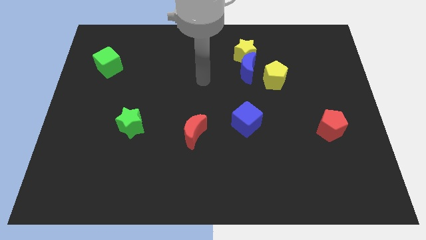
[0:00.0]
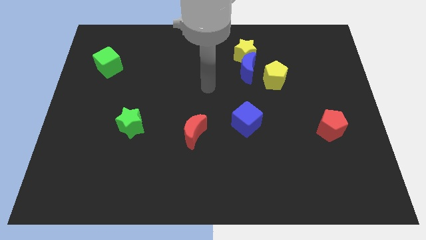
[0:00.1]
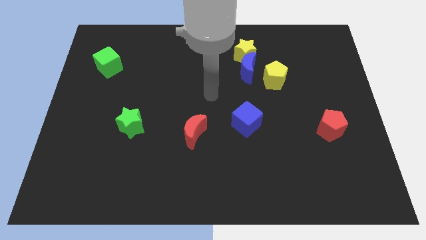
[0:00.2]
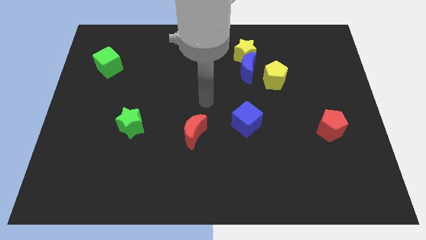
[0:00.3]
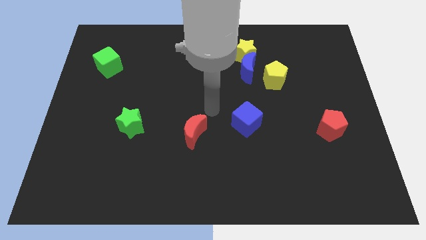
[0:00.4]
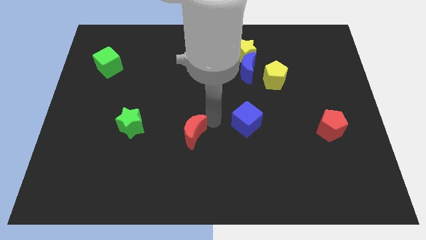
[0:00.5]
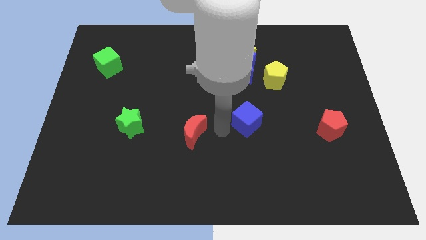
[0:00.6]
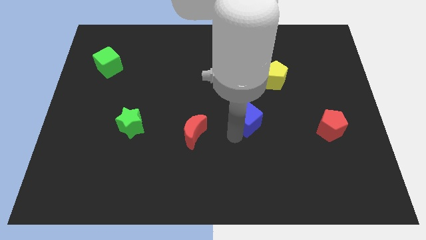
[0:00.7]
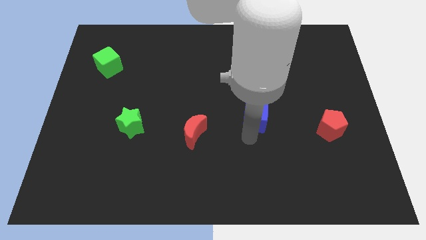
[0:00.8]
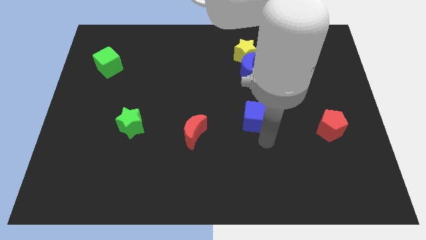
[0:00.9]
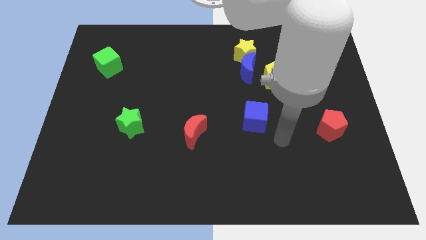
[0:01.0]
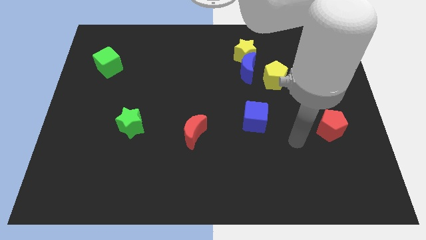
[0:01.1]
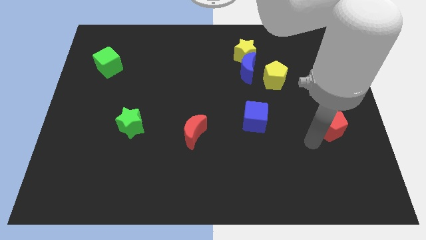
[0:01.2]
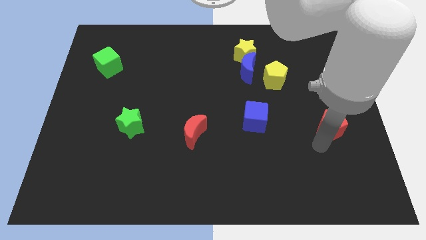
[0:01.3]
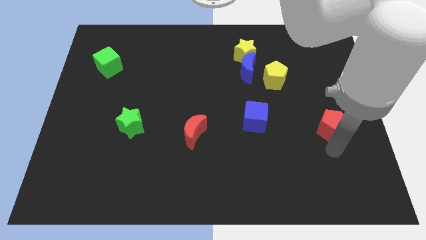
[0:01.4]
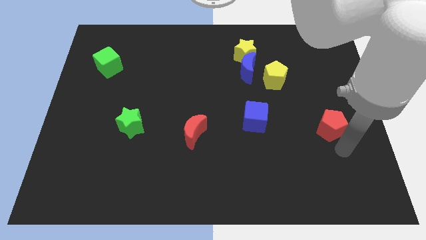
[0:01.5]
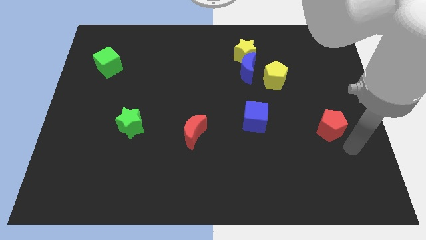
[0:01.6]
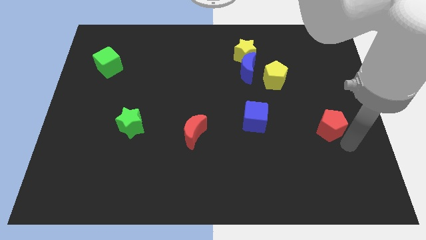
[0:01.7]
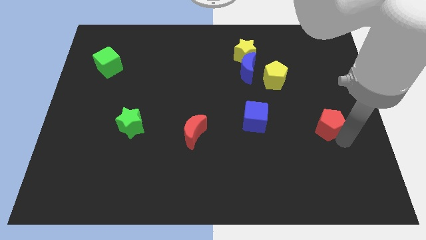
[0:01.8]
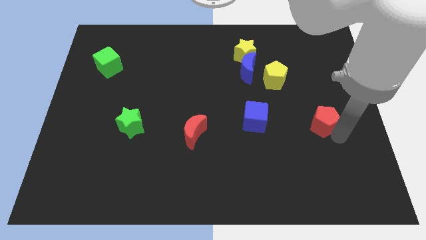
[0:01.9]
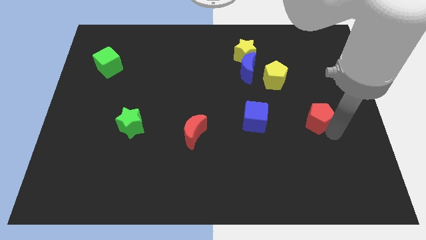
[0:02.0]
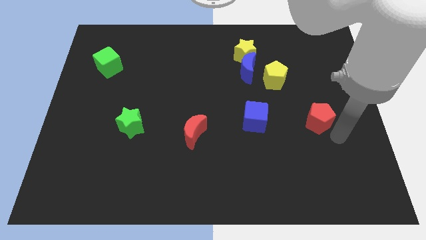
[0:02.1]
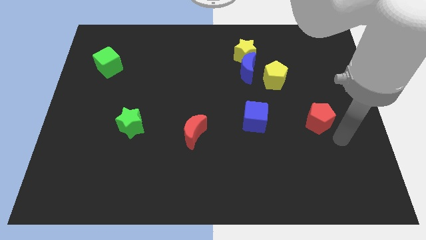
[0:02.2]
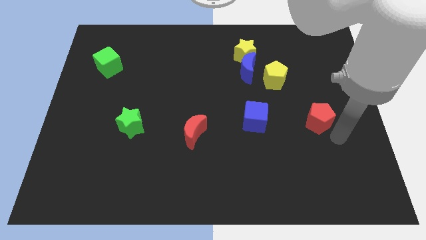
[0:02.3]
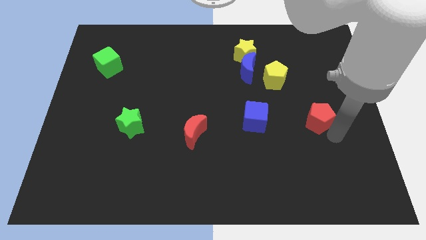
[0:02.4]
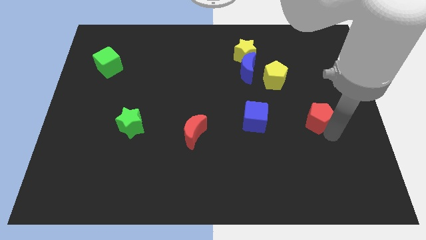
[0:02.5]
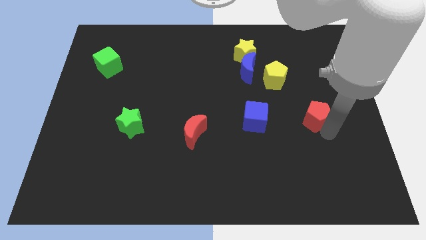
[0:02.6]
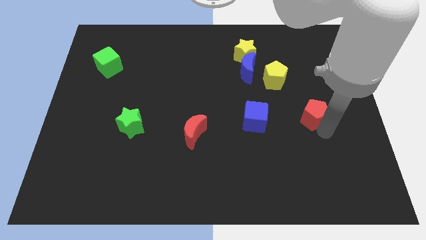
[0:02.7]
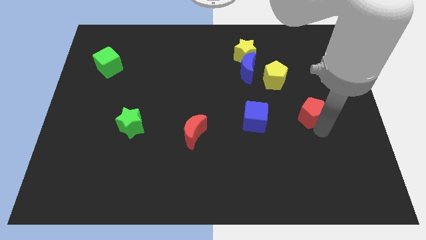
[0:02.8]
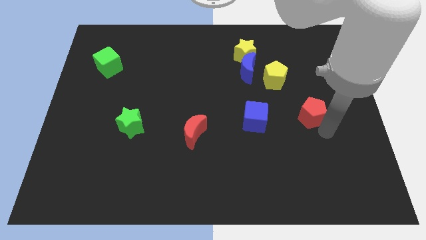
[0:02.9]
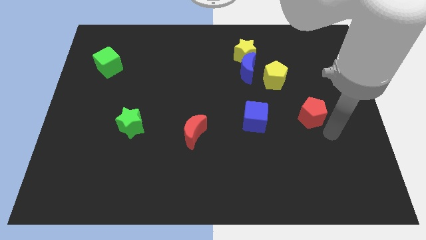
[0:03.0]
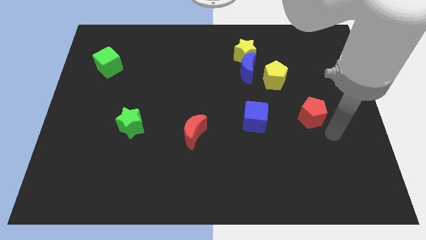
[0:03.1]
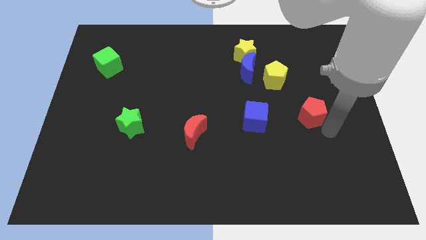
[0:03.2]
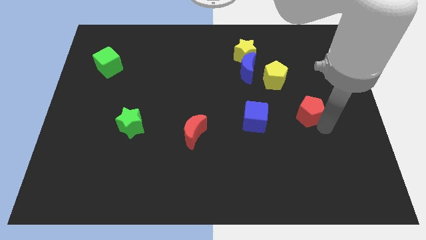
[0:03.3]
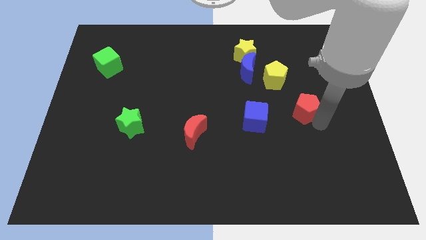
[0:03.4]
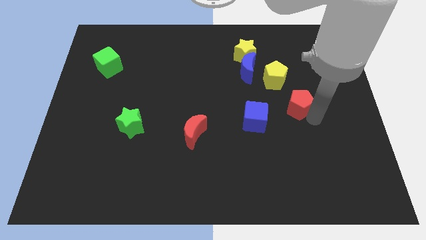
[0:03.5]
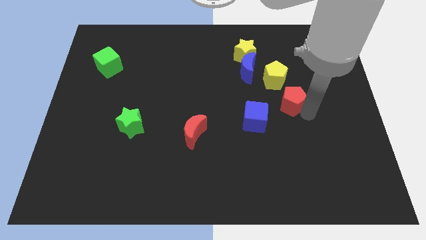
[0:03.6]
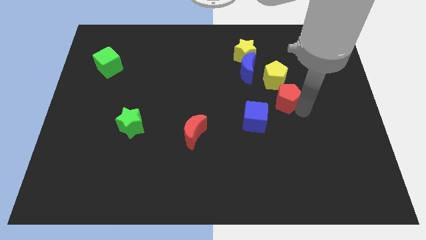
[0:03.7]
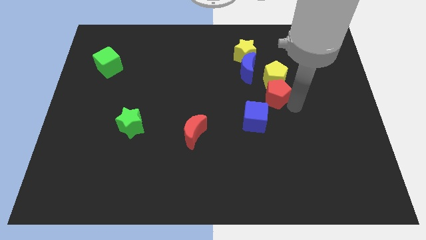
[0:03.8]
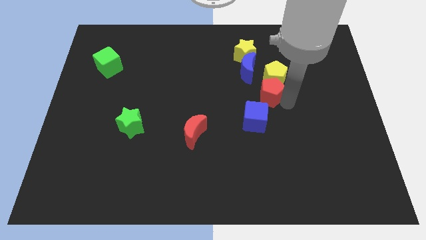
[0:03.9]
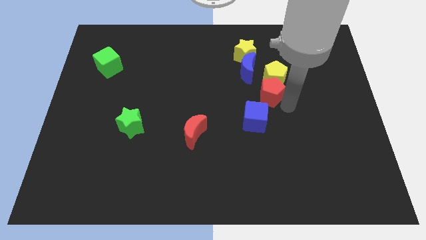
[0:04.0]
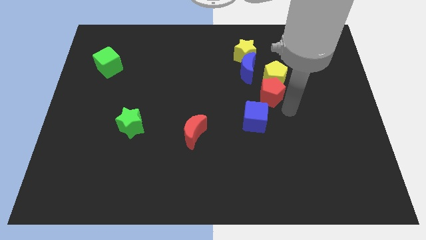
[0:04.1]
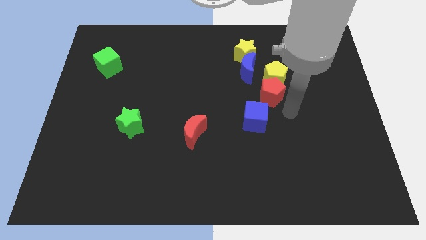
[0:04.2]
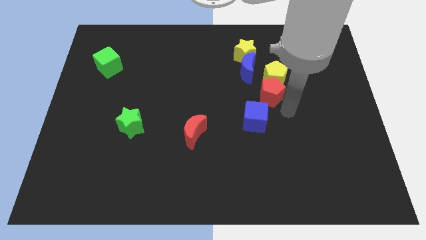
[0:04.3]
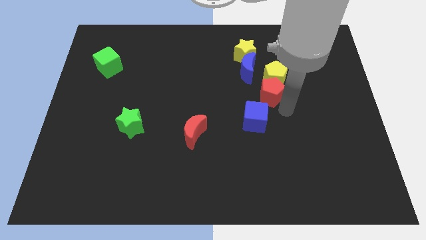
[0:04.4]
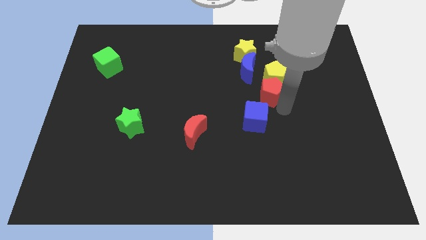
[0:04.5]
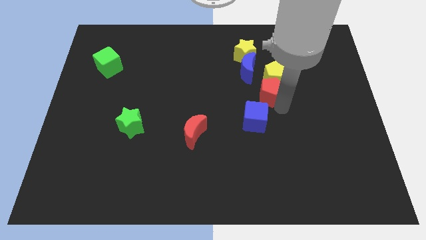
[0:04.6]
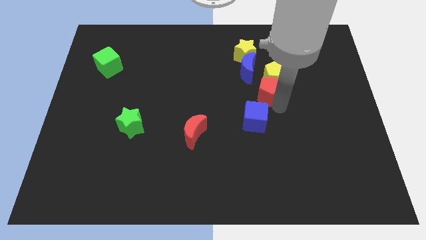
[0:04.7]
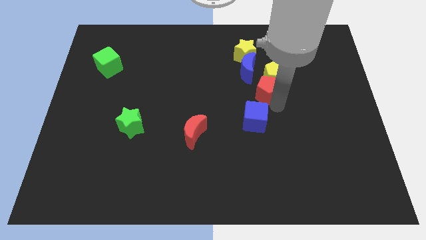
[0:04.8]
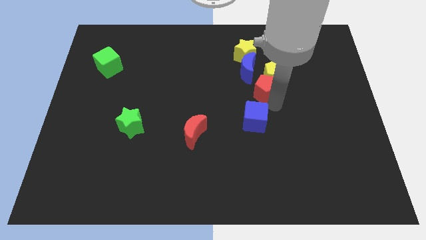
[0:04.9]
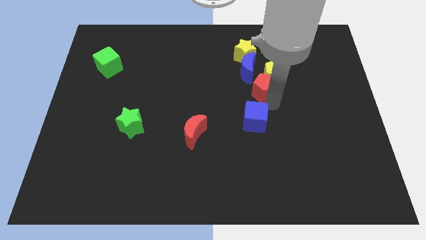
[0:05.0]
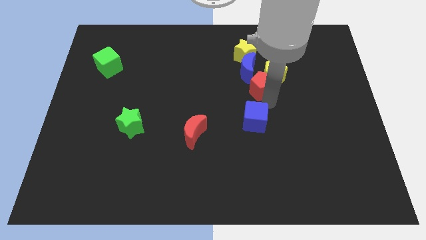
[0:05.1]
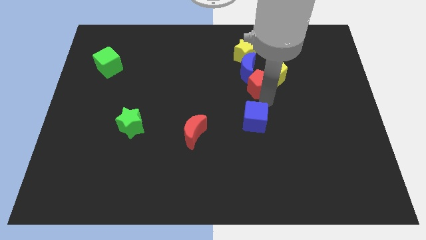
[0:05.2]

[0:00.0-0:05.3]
put the red pentagon next to the blue moon

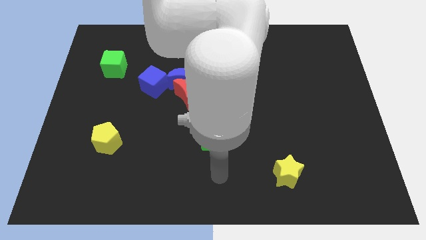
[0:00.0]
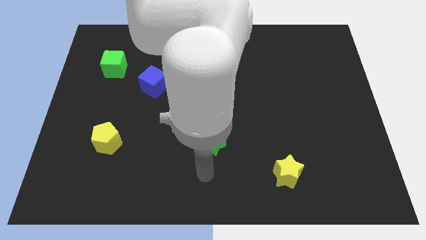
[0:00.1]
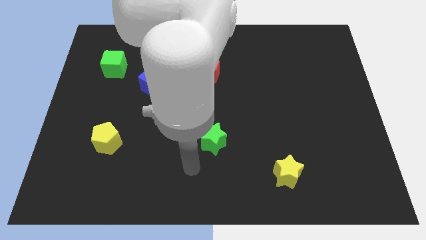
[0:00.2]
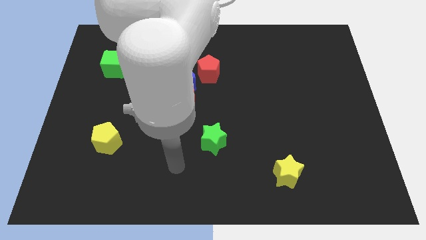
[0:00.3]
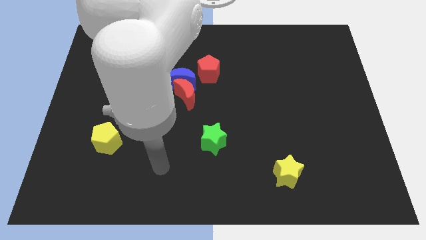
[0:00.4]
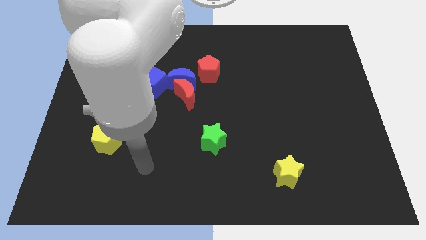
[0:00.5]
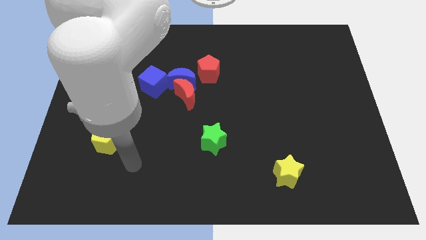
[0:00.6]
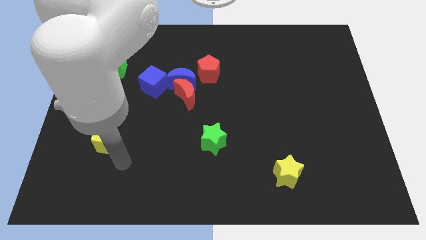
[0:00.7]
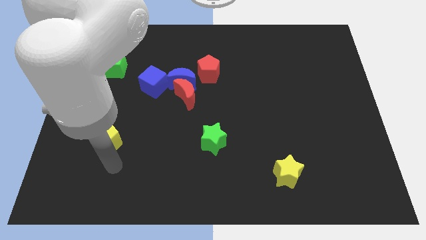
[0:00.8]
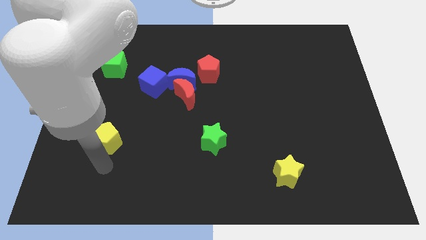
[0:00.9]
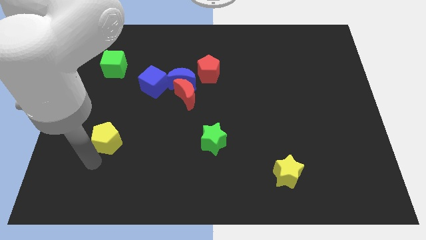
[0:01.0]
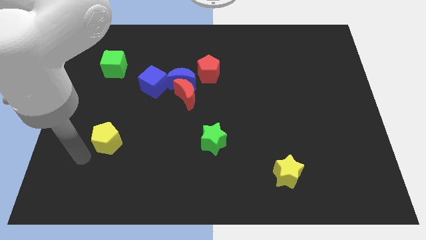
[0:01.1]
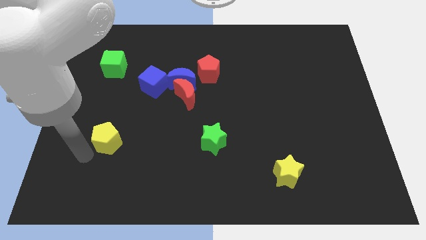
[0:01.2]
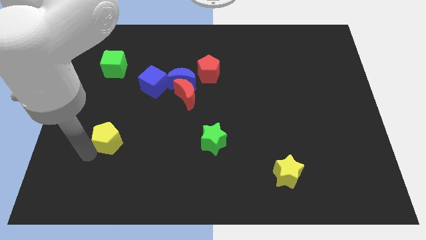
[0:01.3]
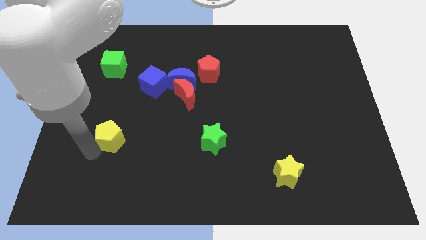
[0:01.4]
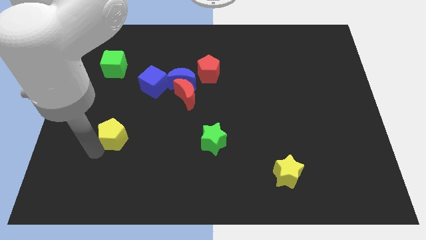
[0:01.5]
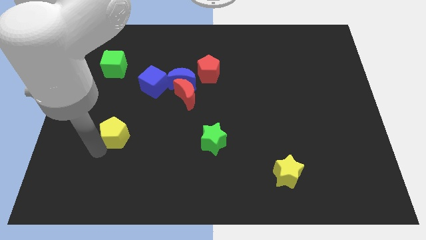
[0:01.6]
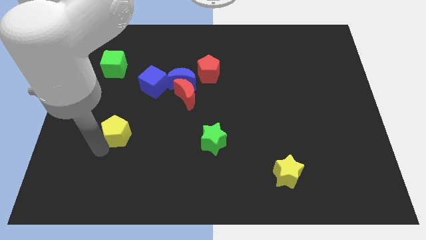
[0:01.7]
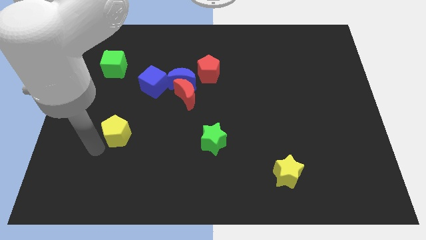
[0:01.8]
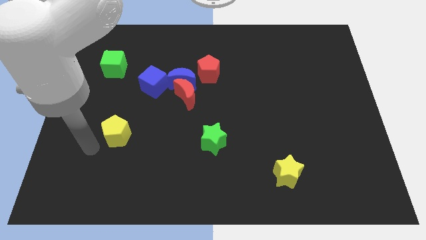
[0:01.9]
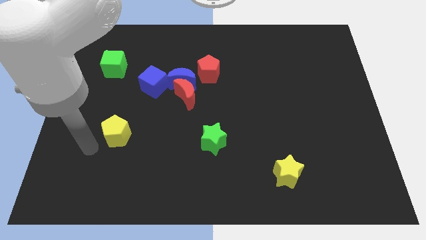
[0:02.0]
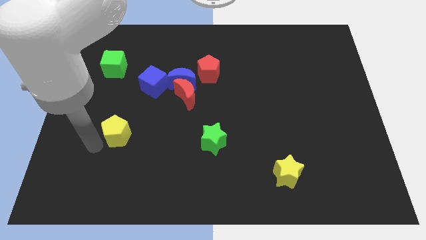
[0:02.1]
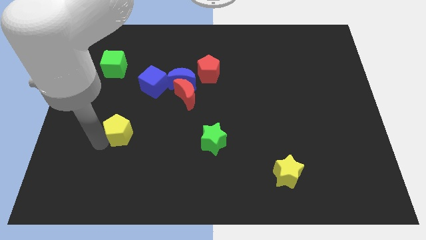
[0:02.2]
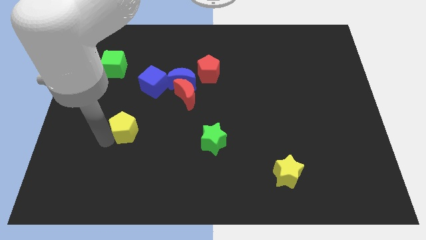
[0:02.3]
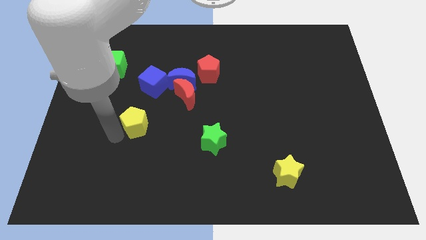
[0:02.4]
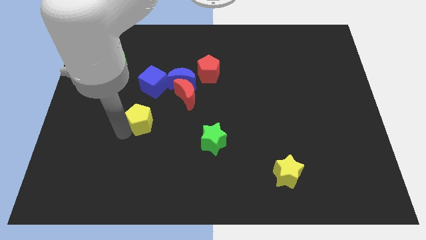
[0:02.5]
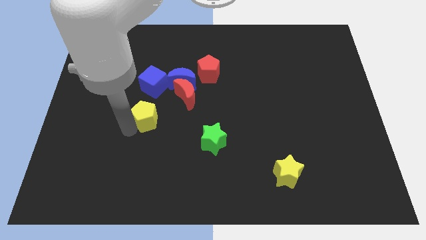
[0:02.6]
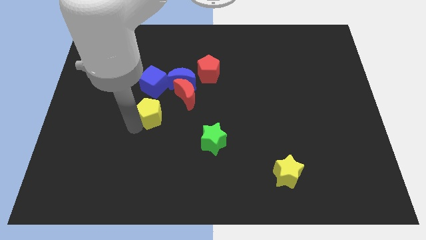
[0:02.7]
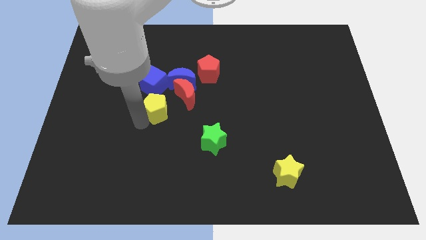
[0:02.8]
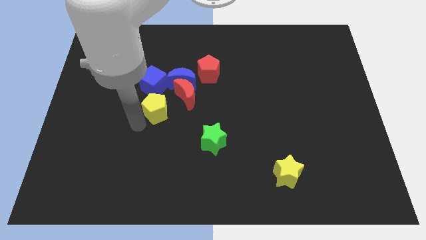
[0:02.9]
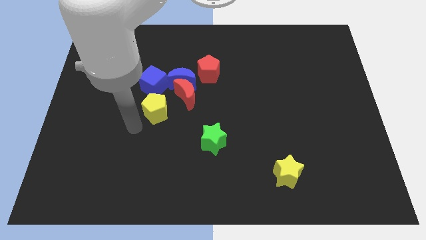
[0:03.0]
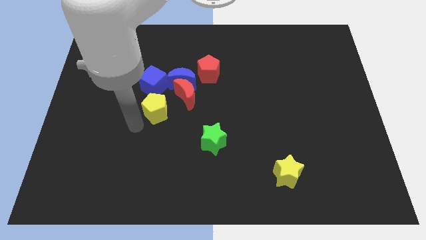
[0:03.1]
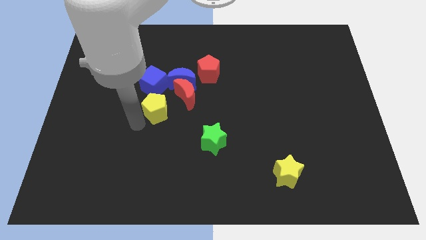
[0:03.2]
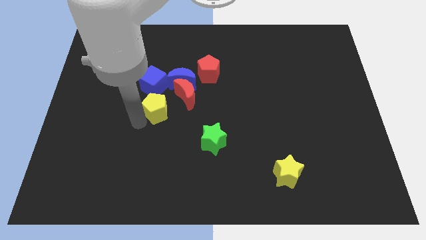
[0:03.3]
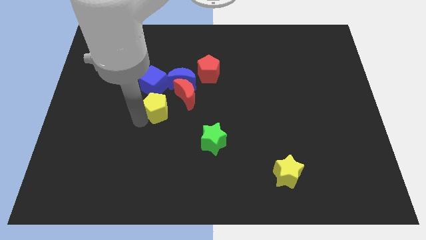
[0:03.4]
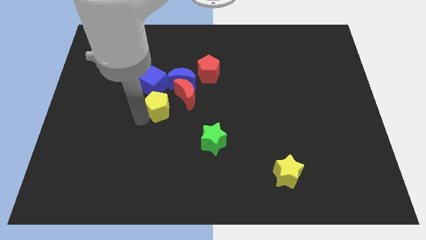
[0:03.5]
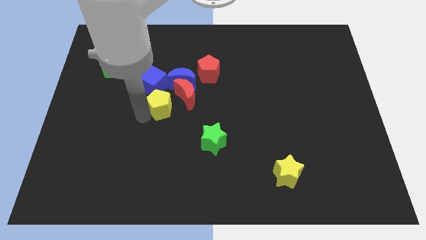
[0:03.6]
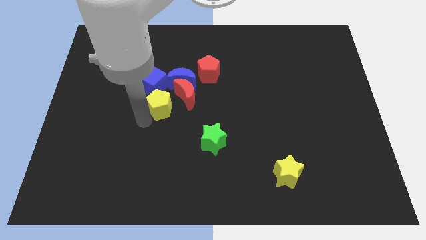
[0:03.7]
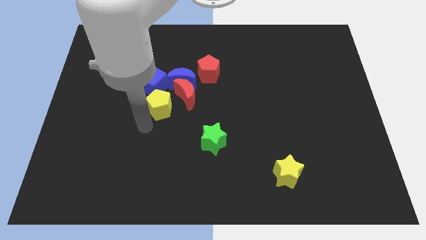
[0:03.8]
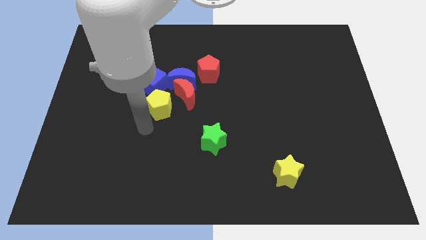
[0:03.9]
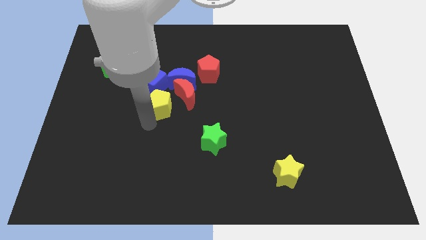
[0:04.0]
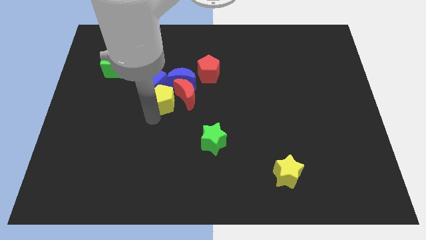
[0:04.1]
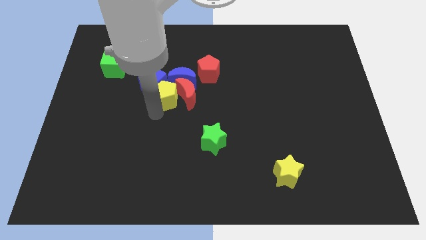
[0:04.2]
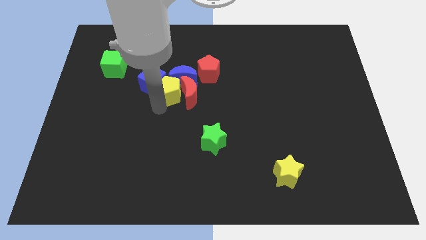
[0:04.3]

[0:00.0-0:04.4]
push the yellow pentagon close to the blue moon
